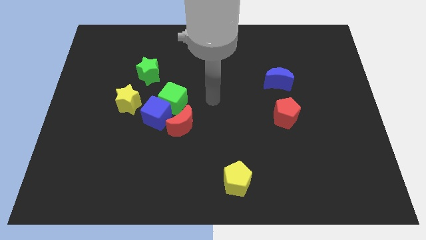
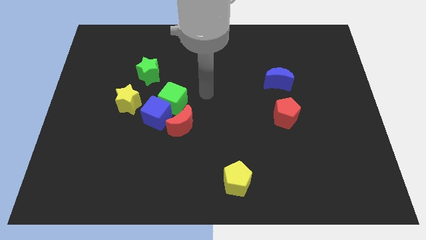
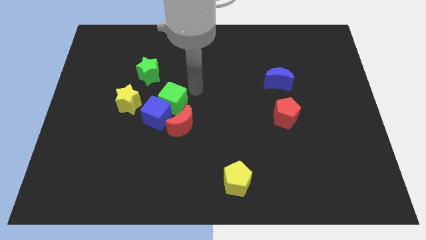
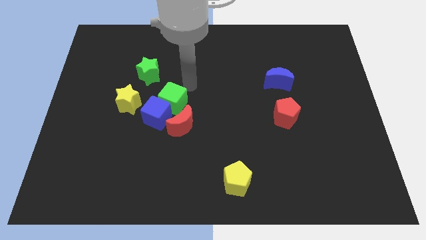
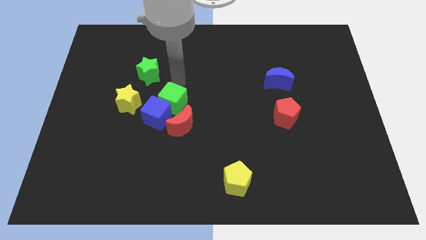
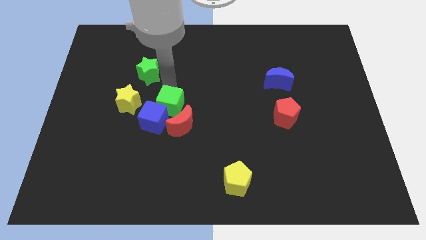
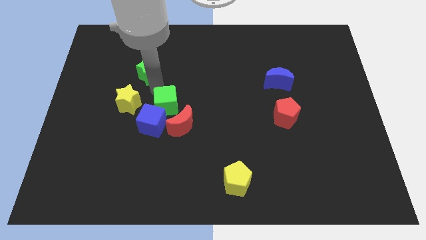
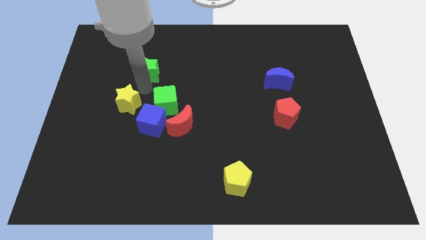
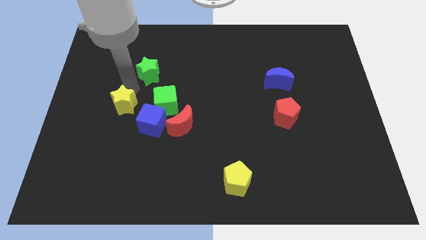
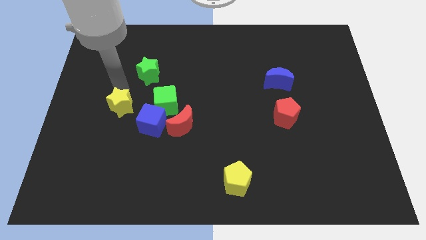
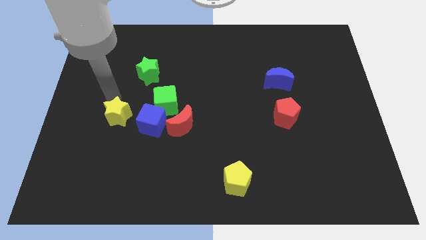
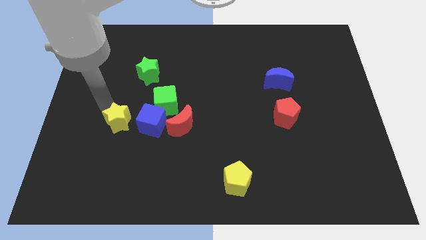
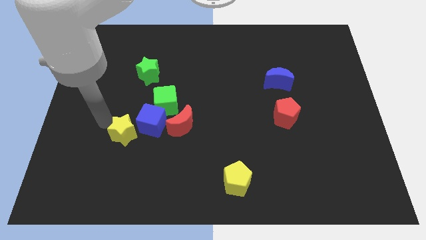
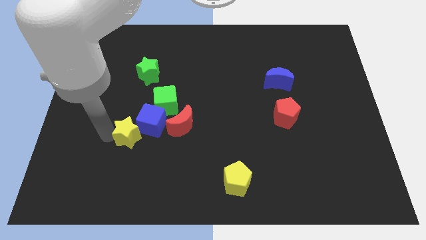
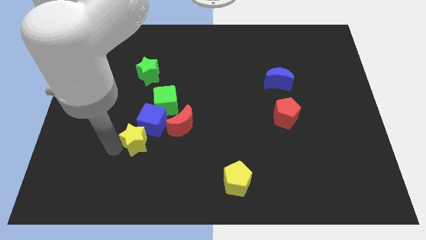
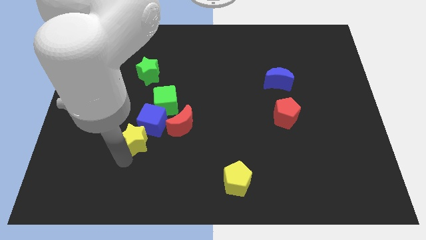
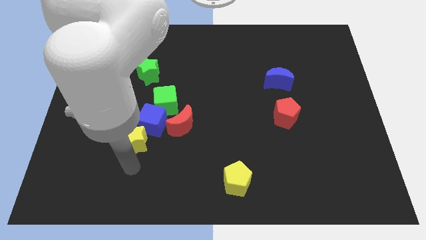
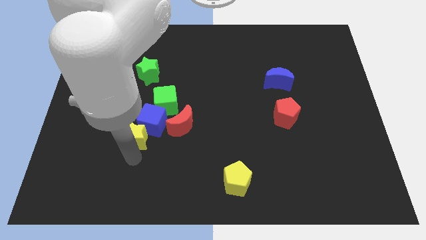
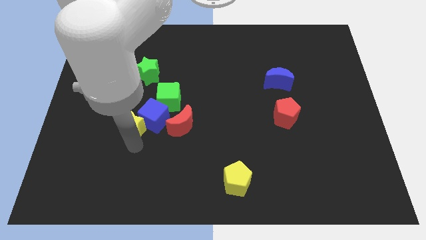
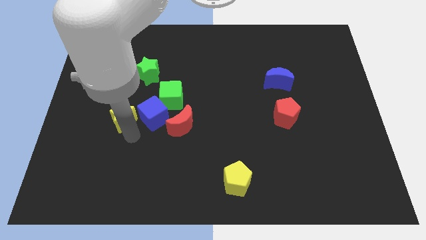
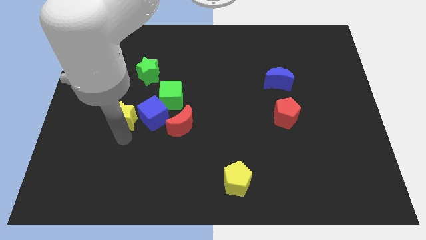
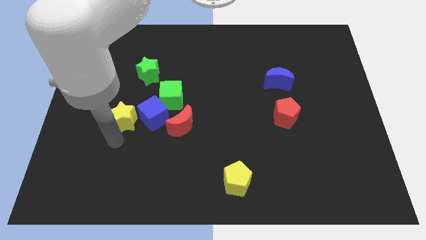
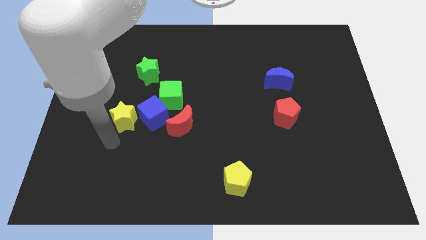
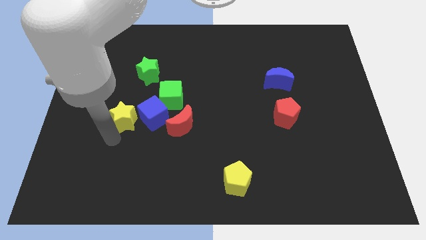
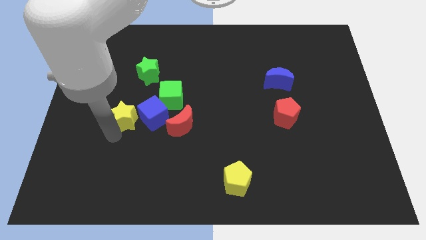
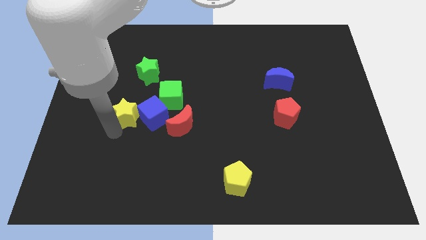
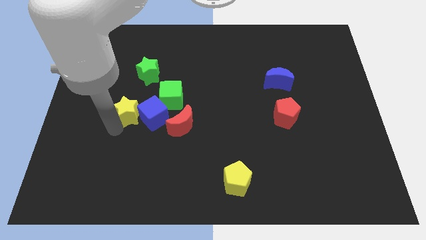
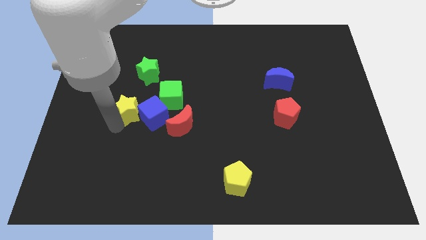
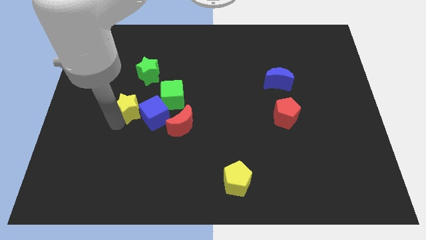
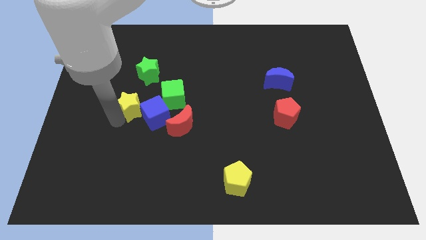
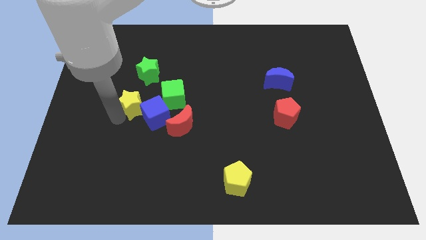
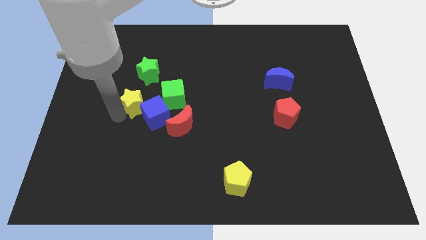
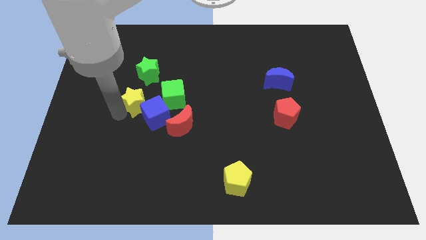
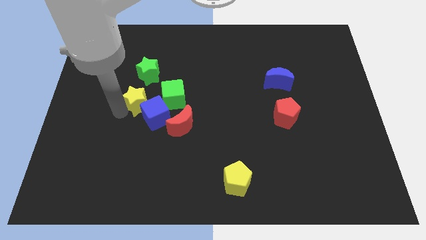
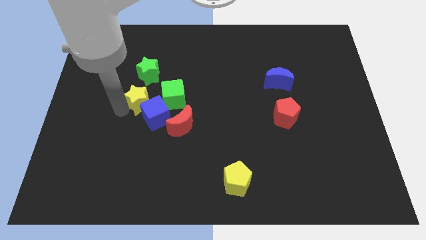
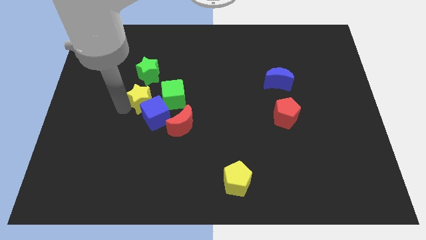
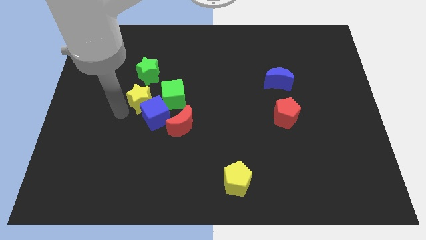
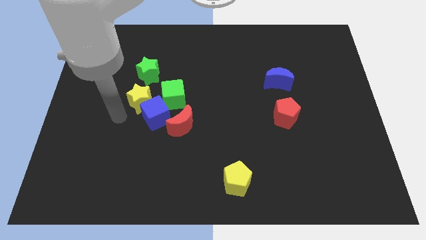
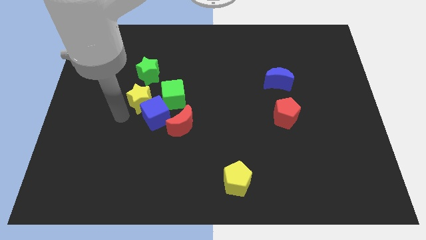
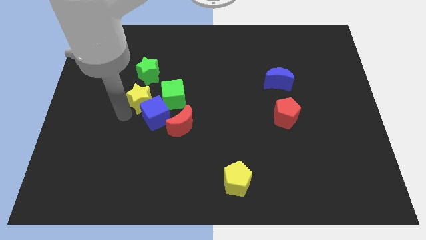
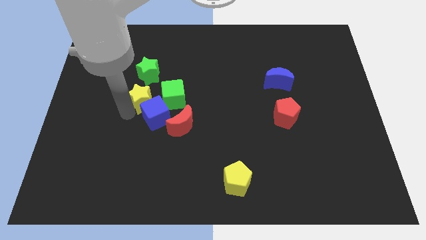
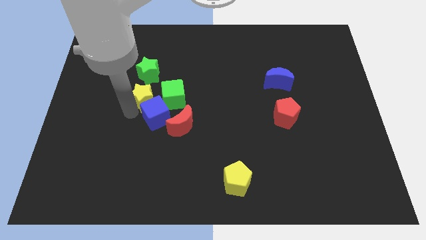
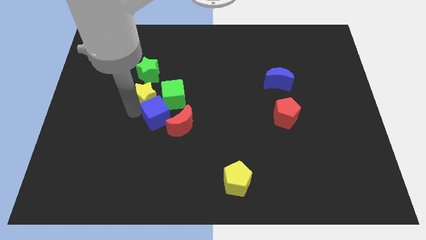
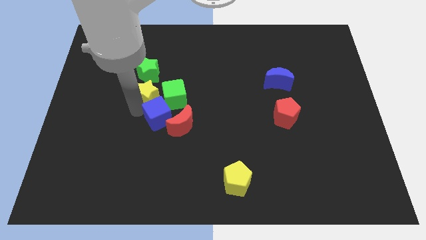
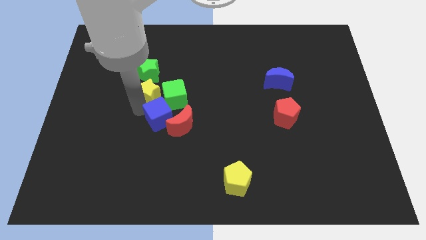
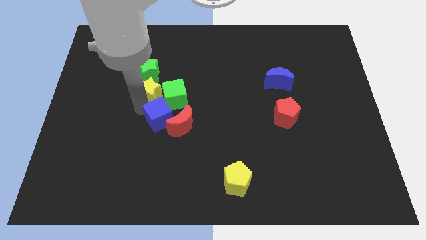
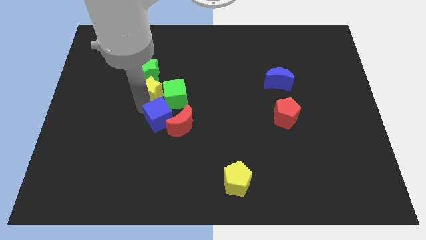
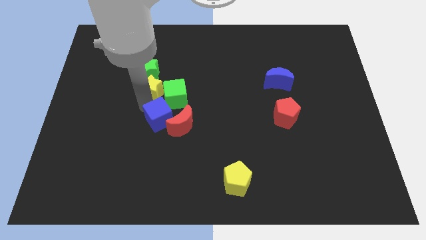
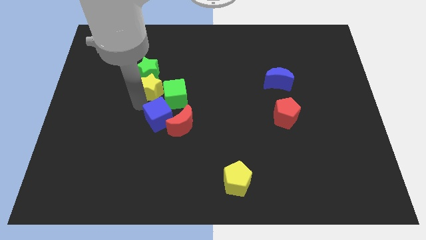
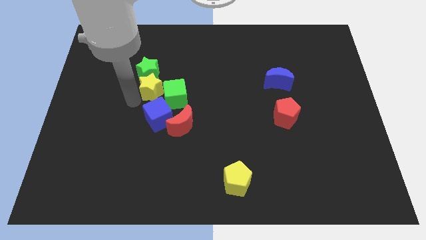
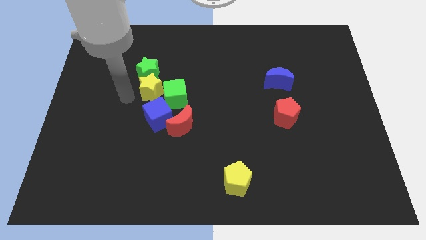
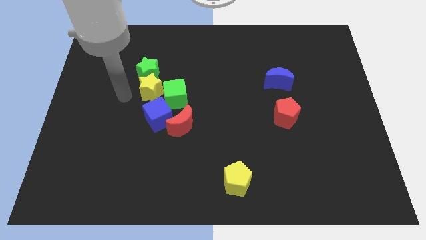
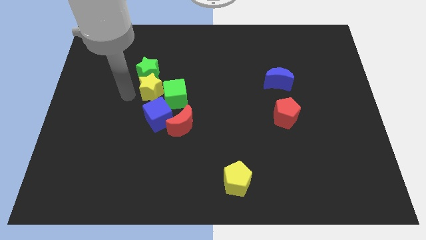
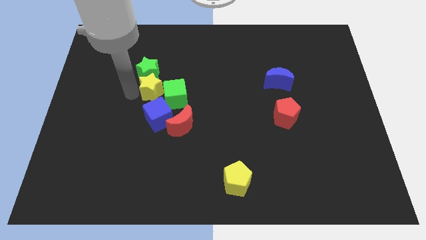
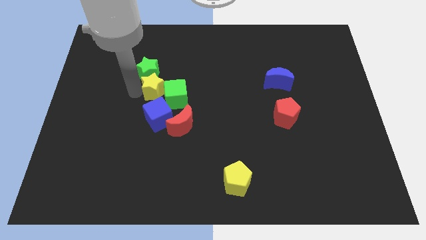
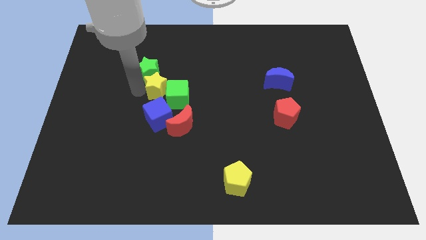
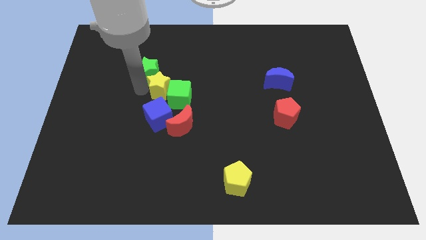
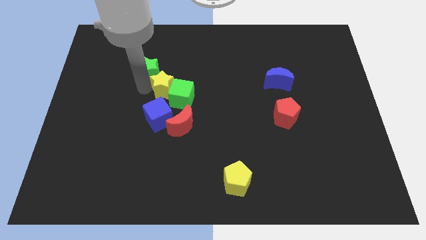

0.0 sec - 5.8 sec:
put the yellow star to the middle of the board
